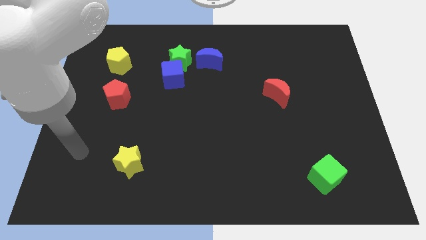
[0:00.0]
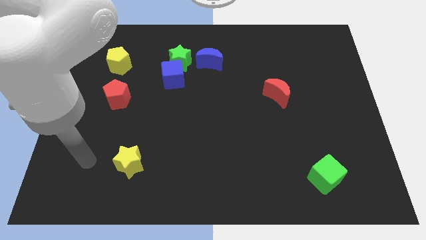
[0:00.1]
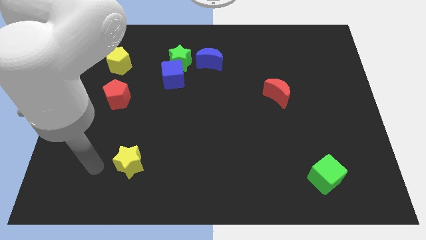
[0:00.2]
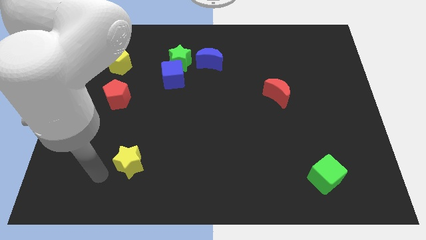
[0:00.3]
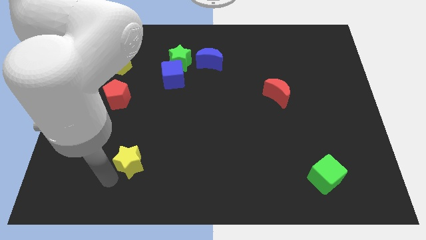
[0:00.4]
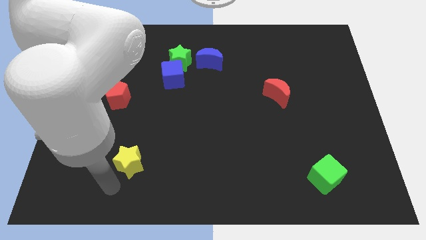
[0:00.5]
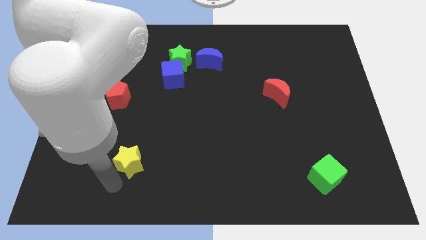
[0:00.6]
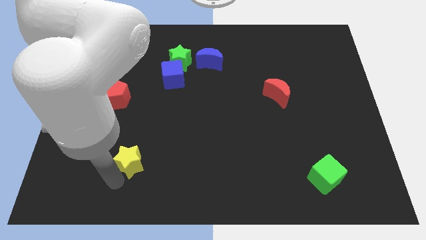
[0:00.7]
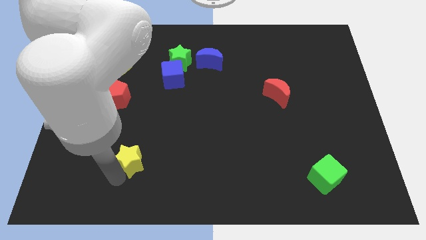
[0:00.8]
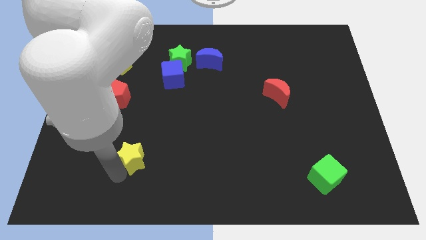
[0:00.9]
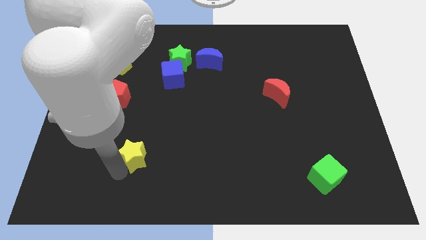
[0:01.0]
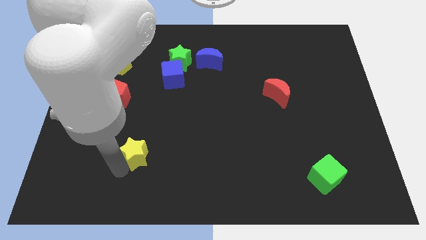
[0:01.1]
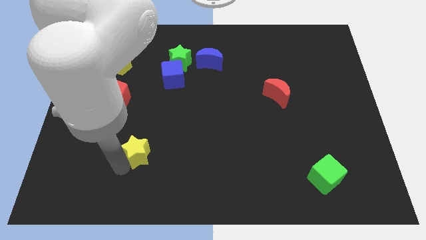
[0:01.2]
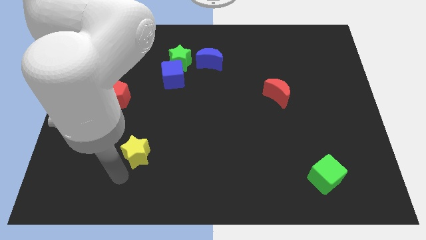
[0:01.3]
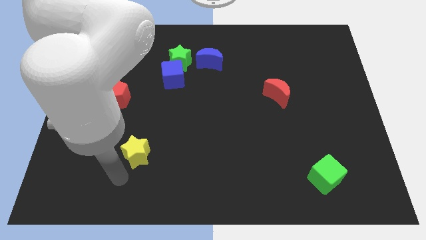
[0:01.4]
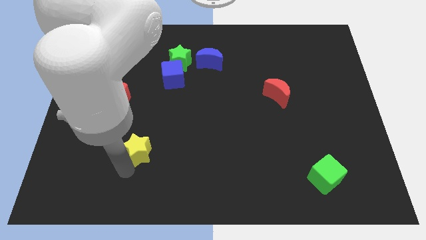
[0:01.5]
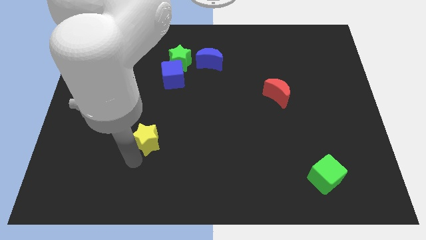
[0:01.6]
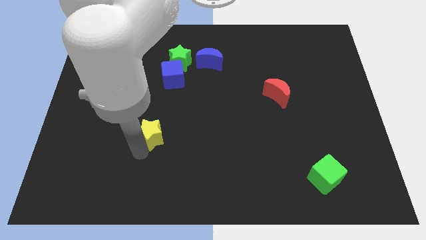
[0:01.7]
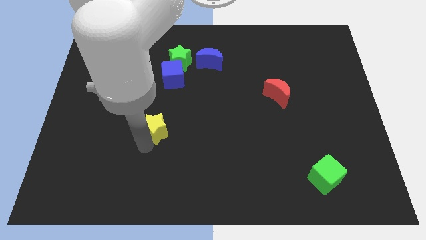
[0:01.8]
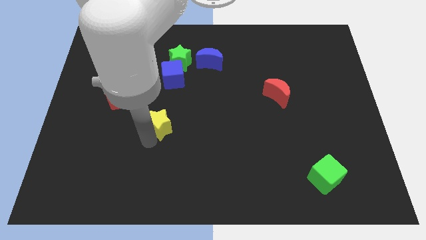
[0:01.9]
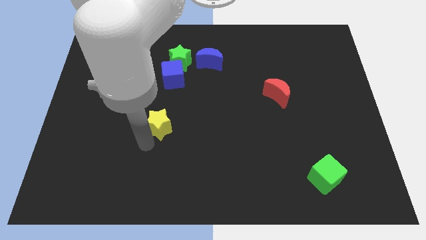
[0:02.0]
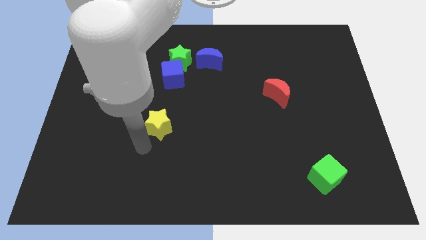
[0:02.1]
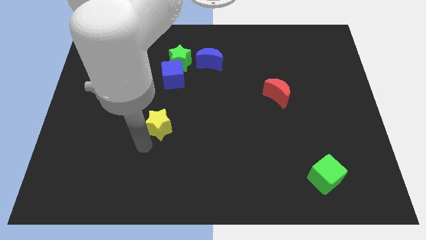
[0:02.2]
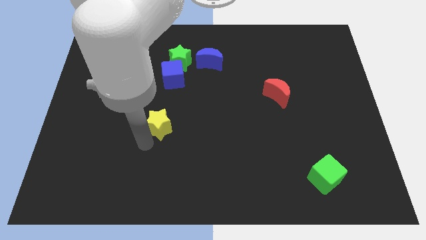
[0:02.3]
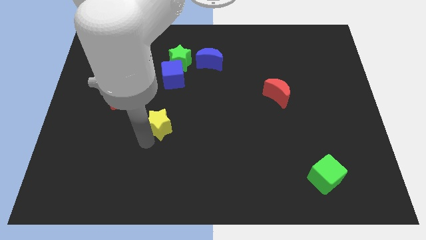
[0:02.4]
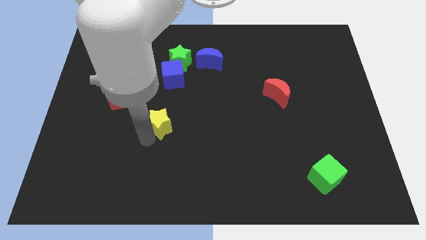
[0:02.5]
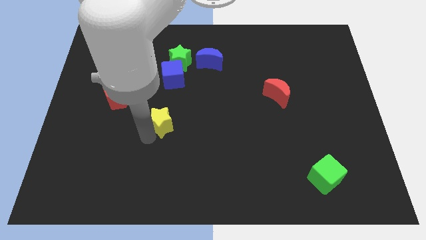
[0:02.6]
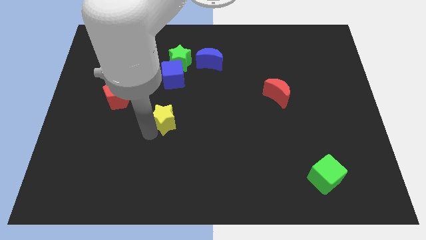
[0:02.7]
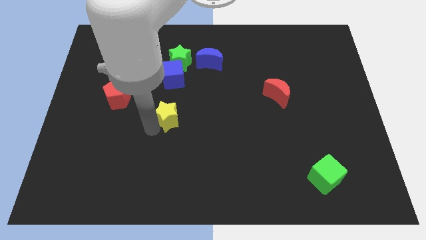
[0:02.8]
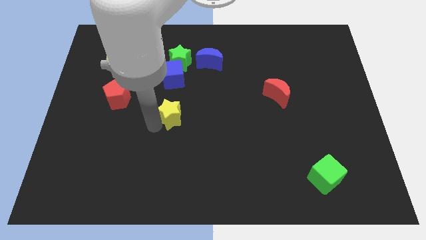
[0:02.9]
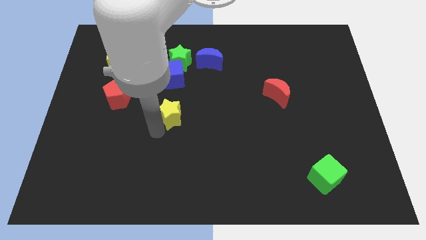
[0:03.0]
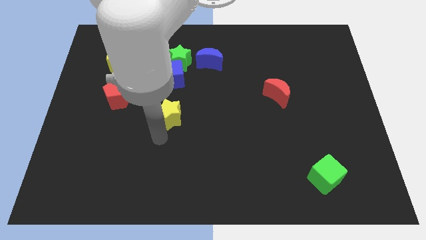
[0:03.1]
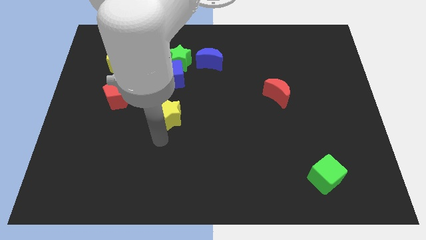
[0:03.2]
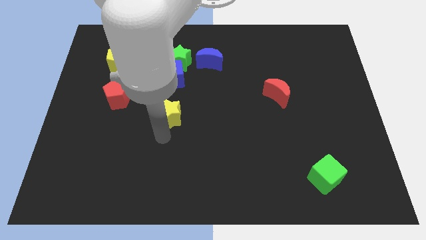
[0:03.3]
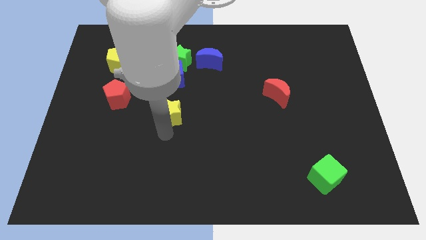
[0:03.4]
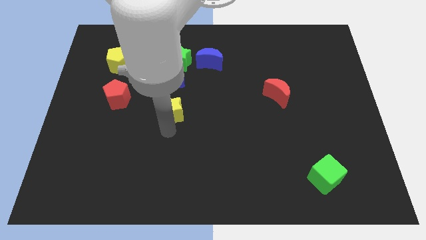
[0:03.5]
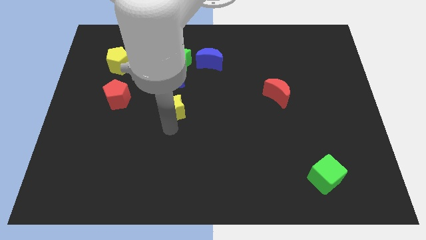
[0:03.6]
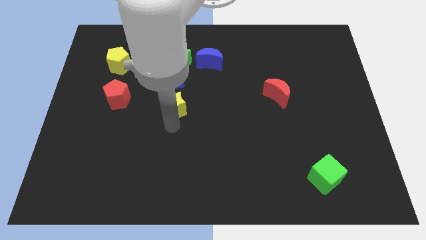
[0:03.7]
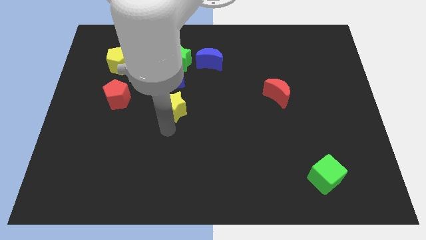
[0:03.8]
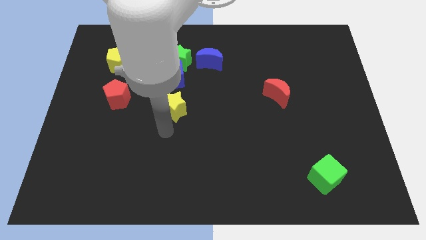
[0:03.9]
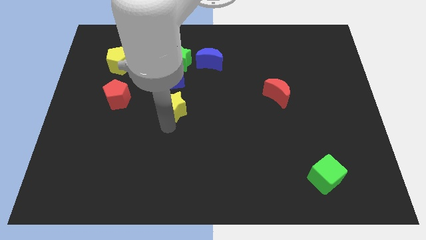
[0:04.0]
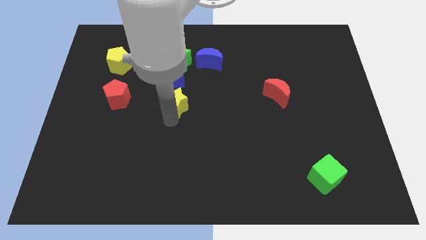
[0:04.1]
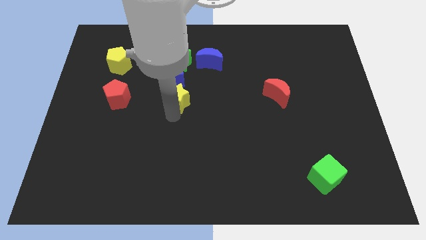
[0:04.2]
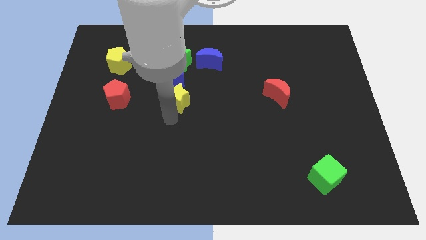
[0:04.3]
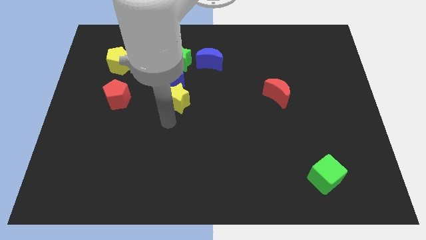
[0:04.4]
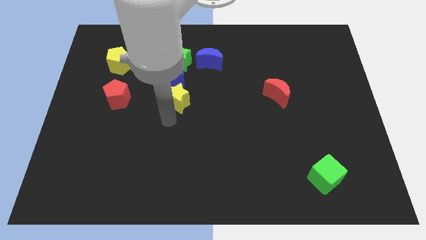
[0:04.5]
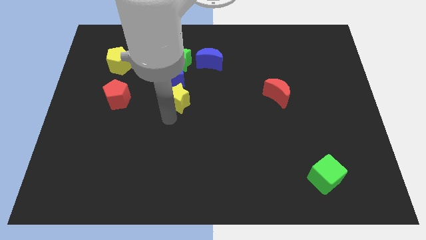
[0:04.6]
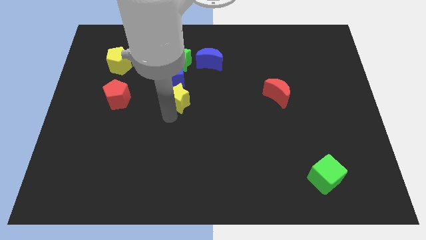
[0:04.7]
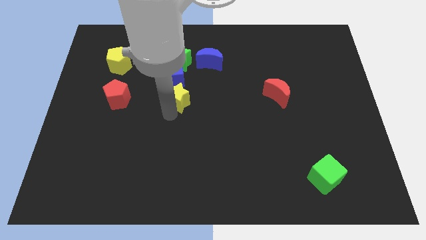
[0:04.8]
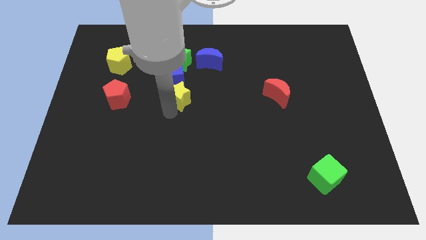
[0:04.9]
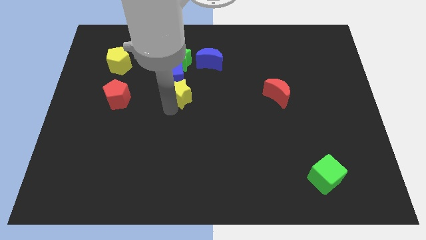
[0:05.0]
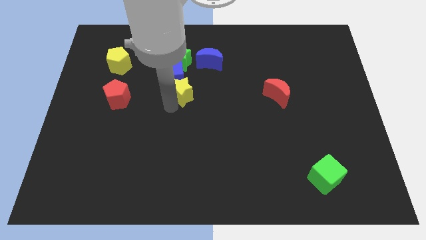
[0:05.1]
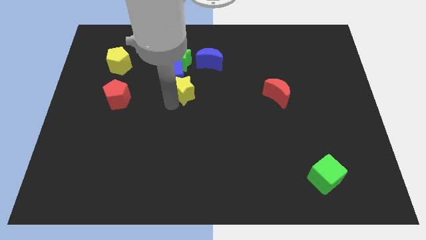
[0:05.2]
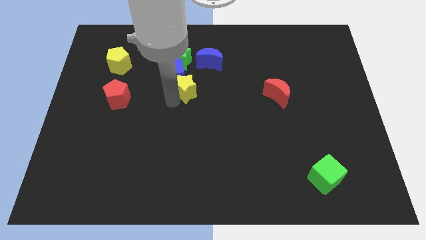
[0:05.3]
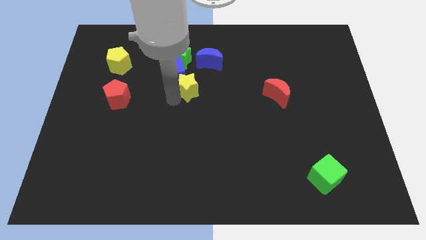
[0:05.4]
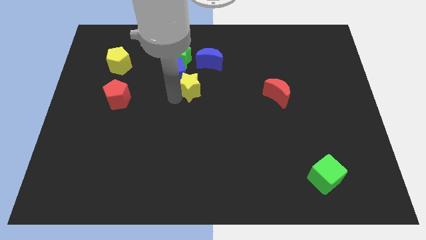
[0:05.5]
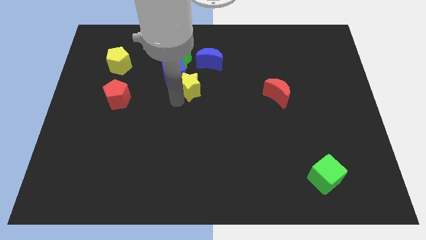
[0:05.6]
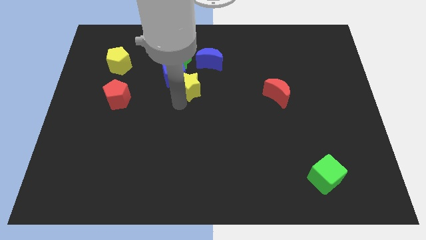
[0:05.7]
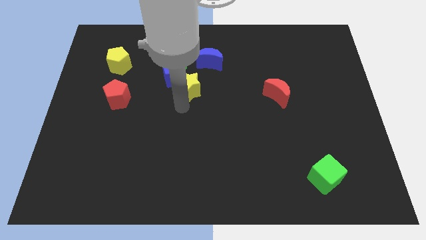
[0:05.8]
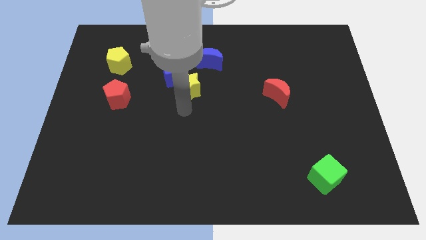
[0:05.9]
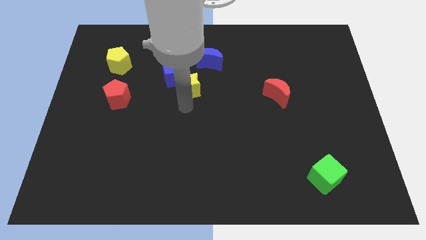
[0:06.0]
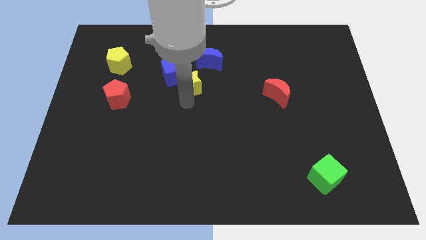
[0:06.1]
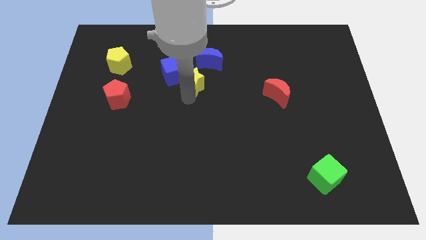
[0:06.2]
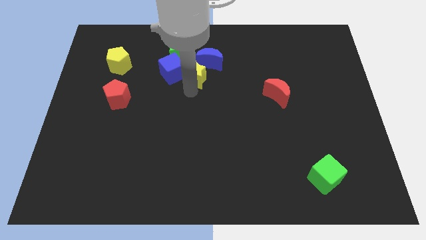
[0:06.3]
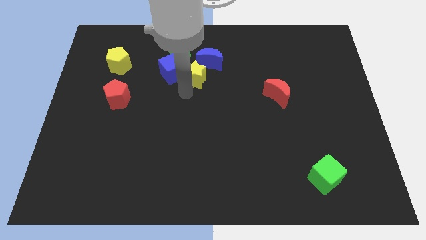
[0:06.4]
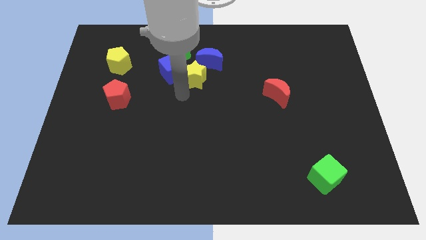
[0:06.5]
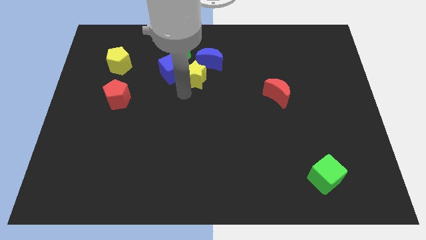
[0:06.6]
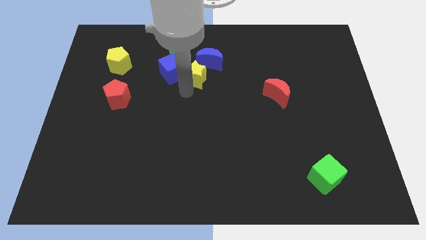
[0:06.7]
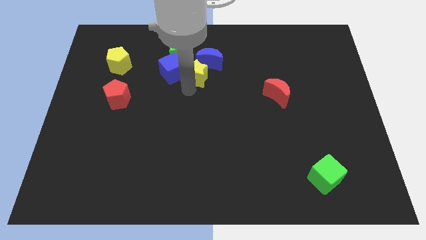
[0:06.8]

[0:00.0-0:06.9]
slide the yellow star next to the blue moon

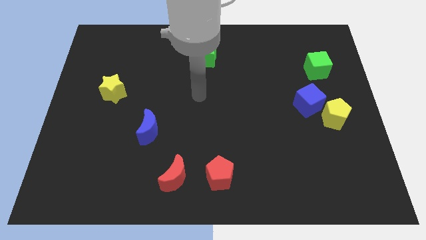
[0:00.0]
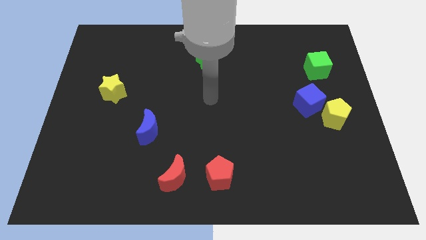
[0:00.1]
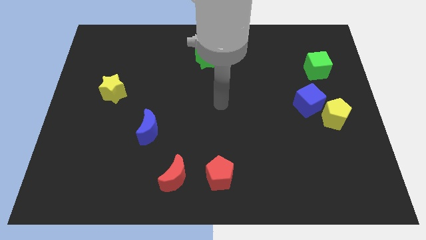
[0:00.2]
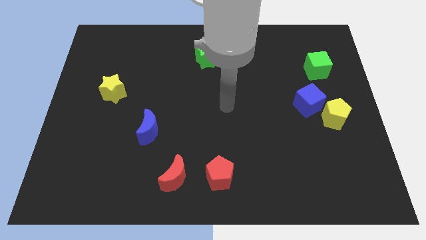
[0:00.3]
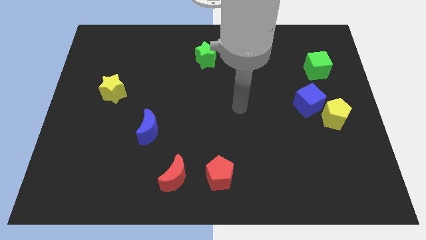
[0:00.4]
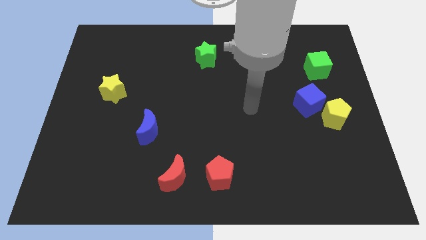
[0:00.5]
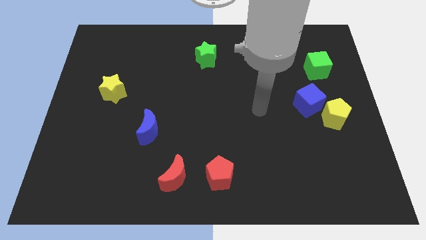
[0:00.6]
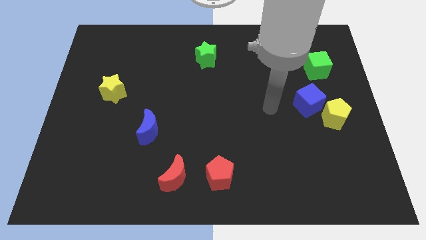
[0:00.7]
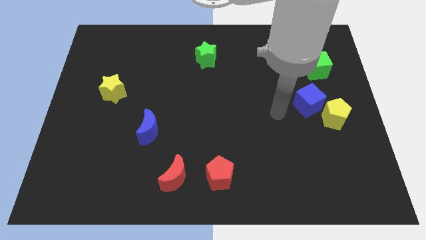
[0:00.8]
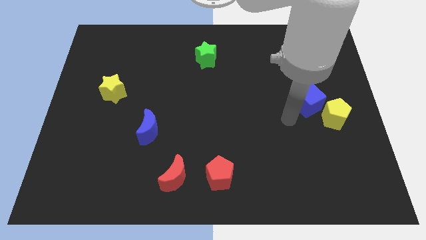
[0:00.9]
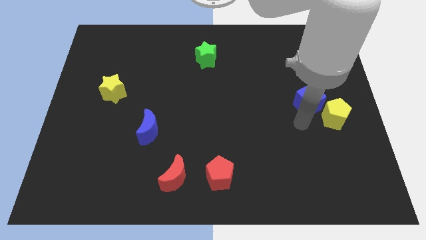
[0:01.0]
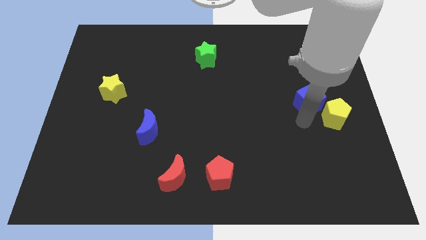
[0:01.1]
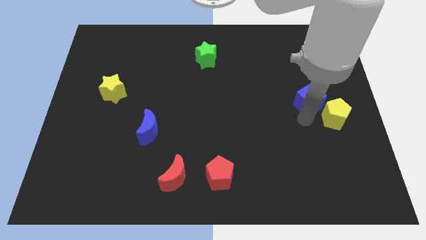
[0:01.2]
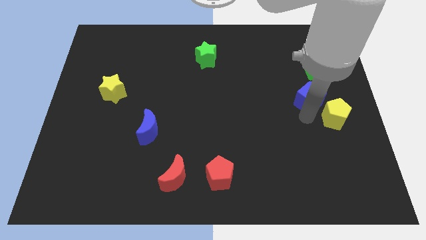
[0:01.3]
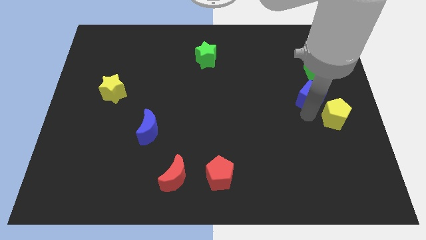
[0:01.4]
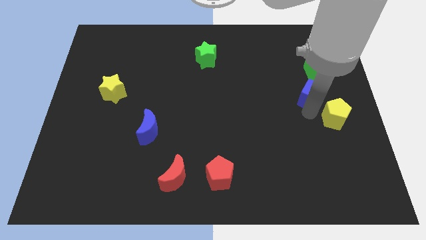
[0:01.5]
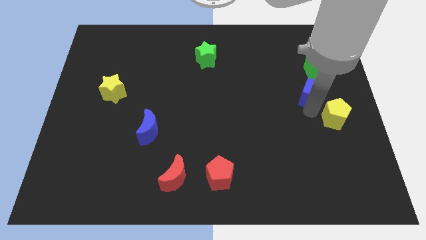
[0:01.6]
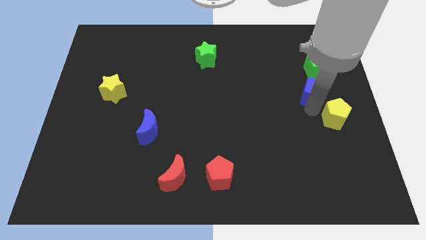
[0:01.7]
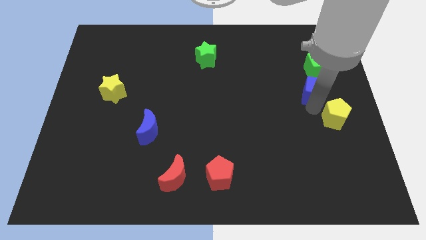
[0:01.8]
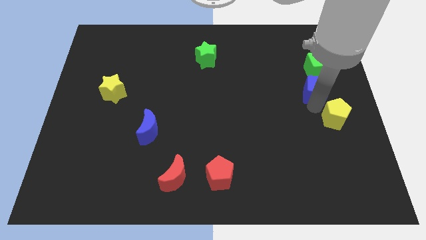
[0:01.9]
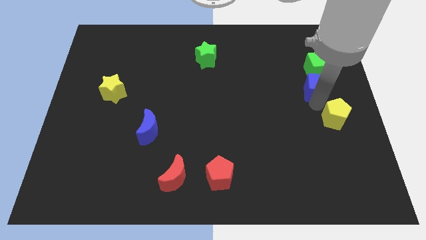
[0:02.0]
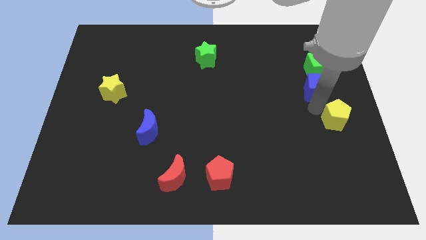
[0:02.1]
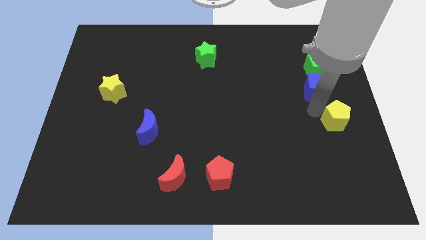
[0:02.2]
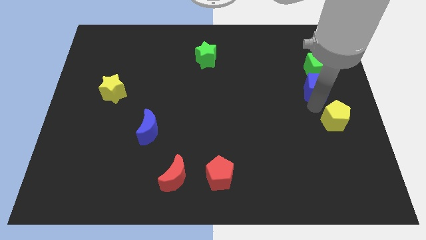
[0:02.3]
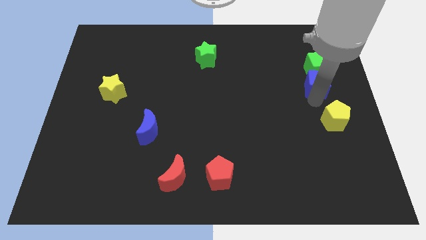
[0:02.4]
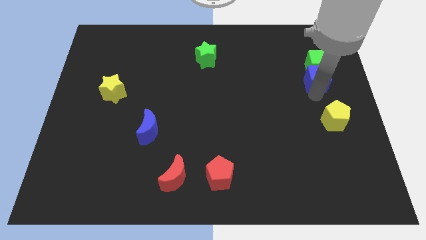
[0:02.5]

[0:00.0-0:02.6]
move the blue cube next to the green cube
